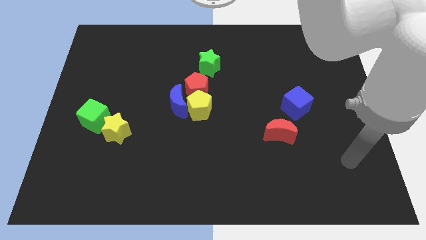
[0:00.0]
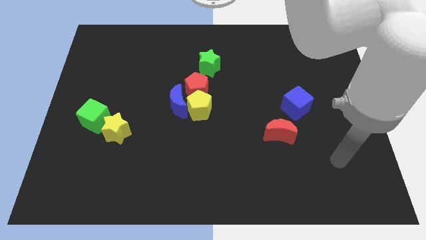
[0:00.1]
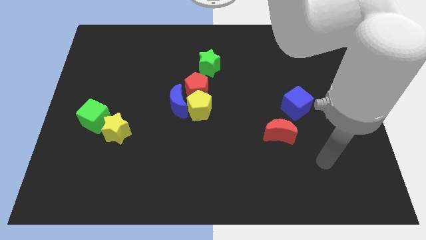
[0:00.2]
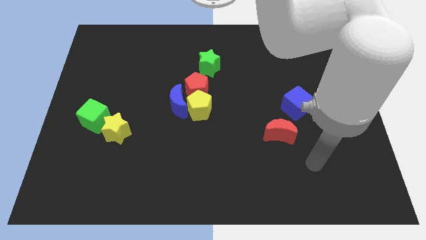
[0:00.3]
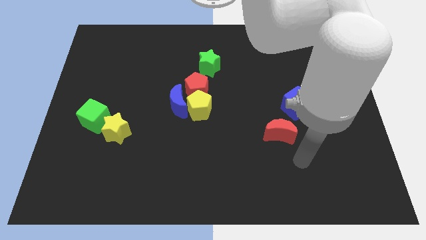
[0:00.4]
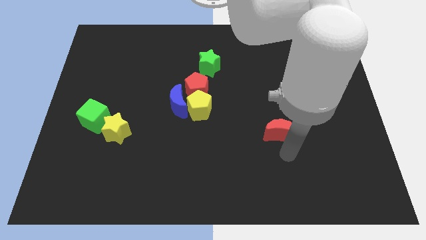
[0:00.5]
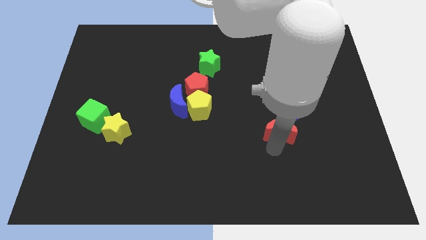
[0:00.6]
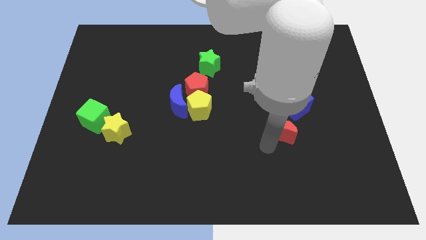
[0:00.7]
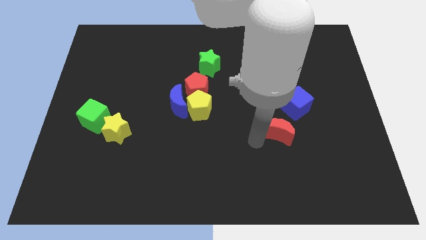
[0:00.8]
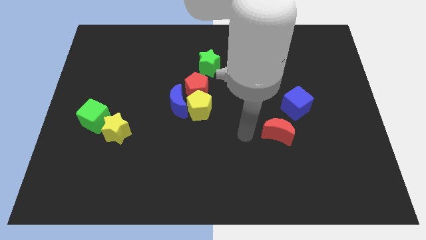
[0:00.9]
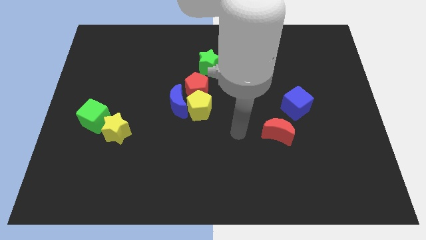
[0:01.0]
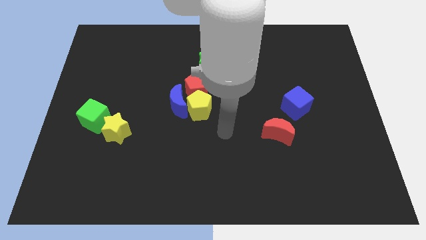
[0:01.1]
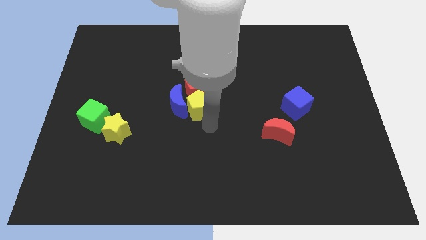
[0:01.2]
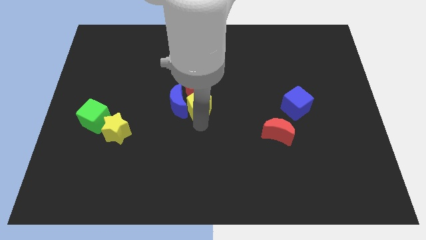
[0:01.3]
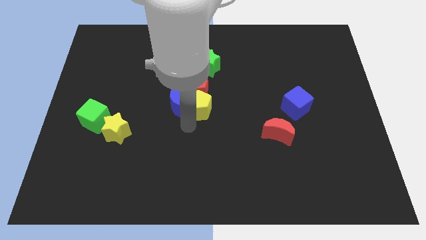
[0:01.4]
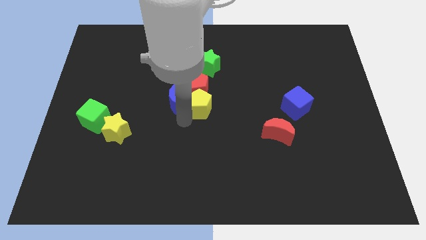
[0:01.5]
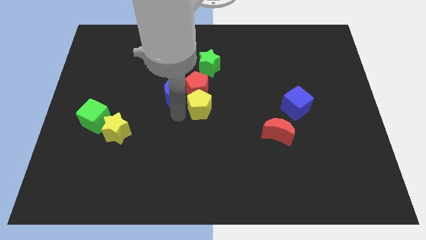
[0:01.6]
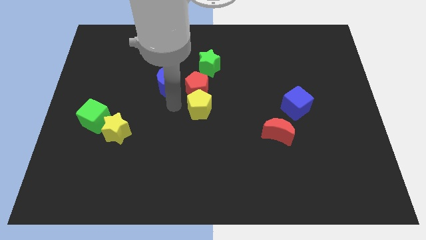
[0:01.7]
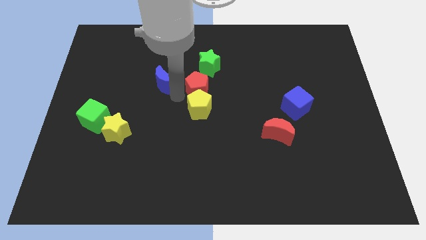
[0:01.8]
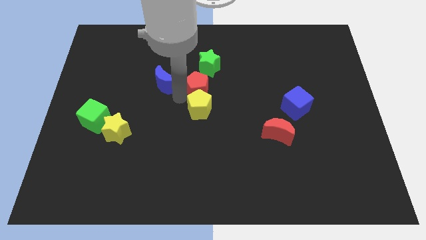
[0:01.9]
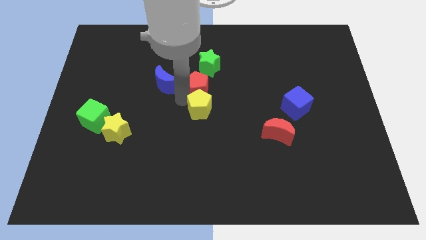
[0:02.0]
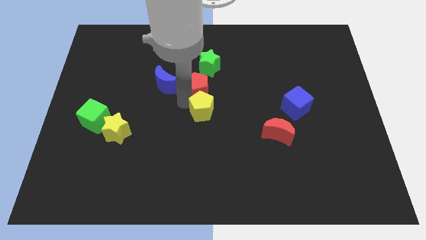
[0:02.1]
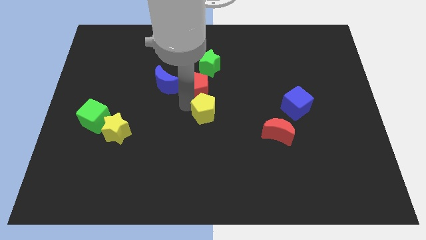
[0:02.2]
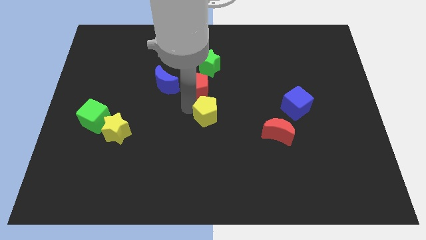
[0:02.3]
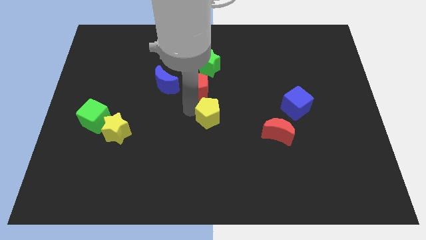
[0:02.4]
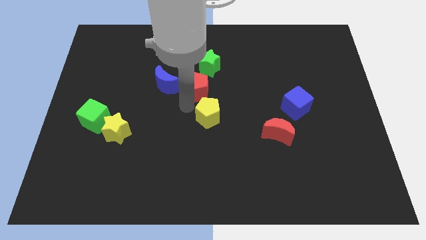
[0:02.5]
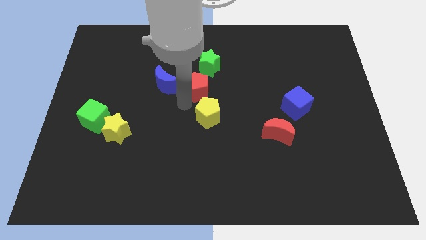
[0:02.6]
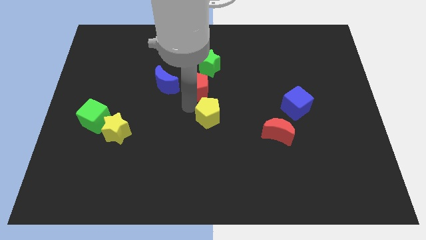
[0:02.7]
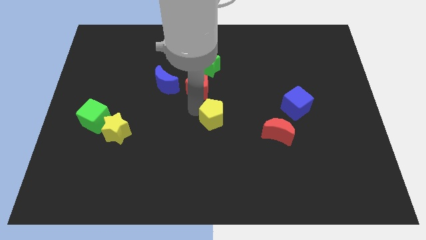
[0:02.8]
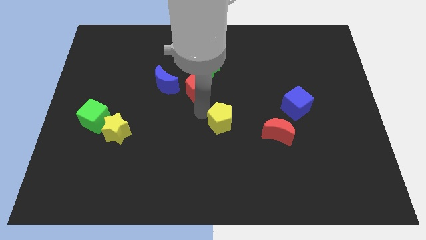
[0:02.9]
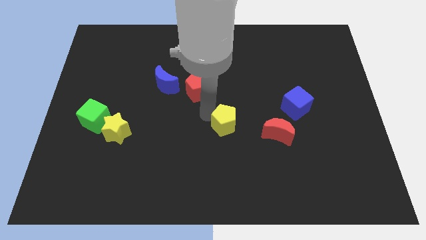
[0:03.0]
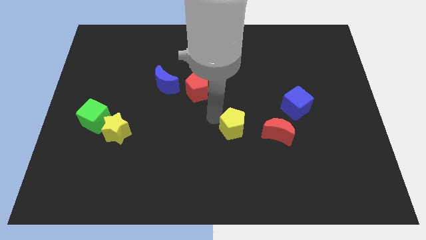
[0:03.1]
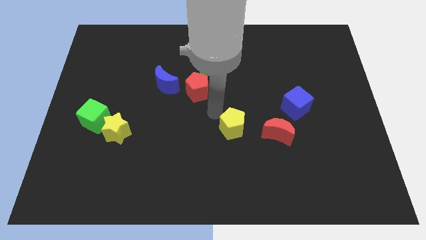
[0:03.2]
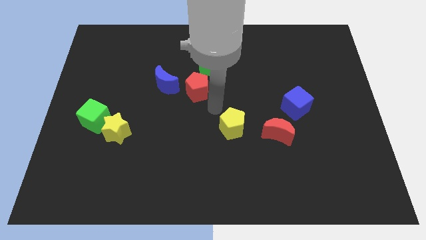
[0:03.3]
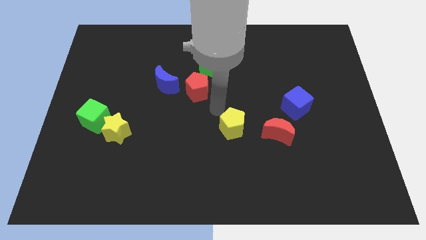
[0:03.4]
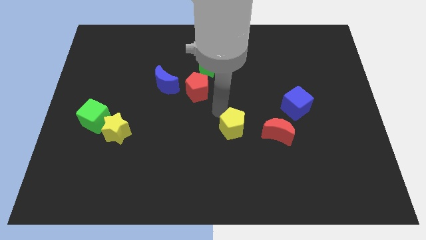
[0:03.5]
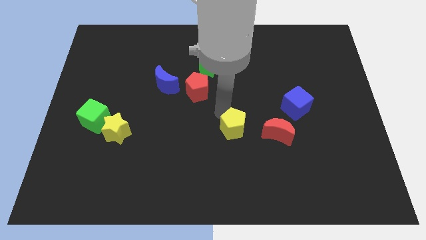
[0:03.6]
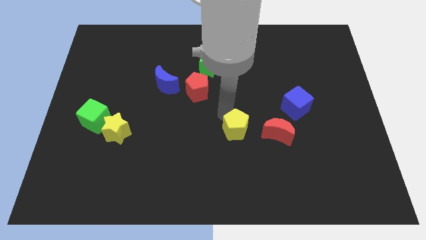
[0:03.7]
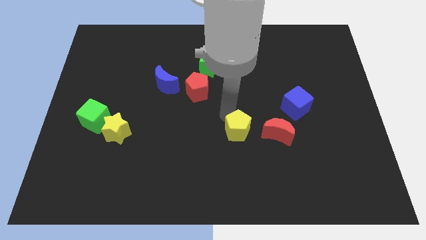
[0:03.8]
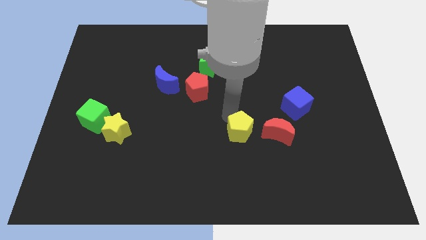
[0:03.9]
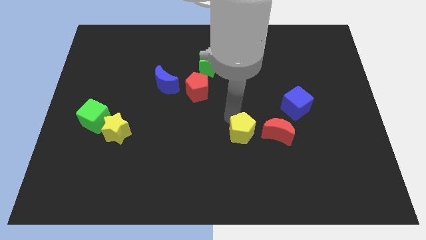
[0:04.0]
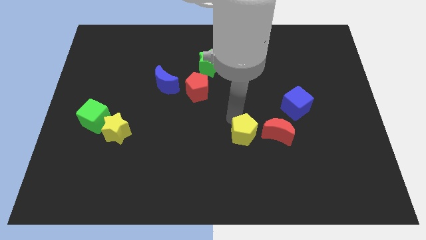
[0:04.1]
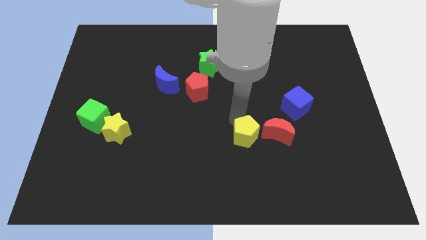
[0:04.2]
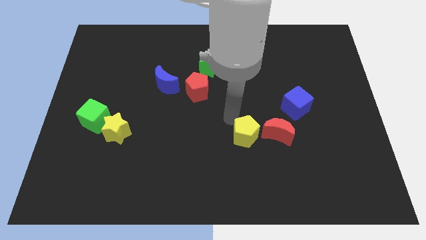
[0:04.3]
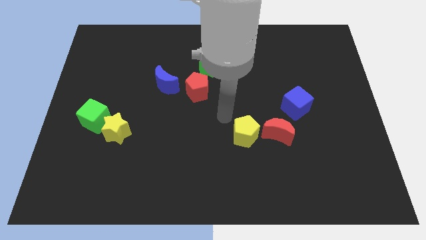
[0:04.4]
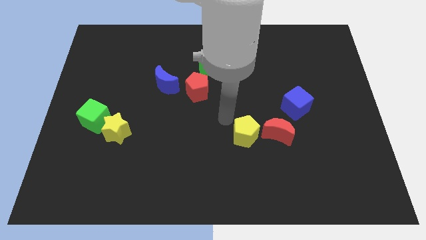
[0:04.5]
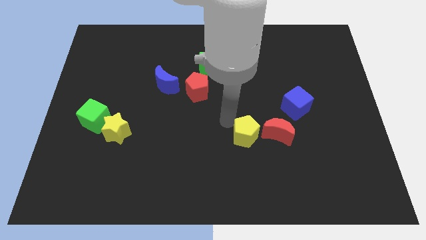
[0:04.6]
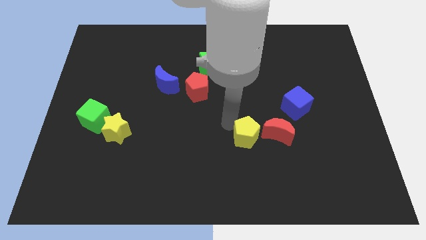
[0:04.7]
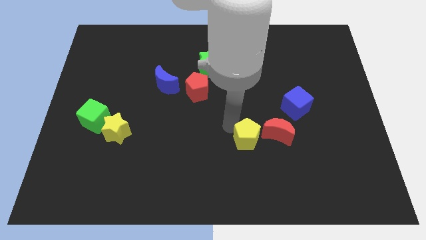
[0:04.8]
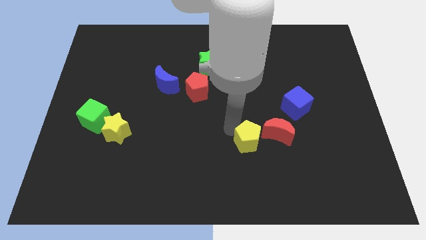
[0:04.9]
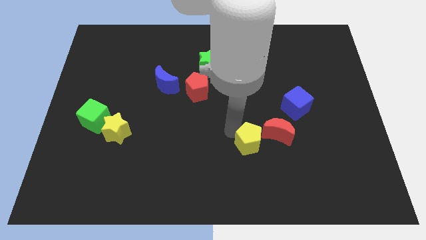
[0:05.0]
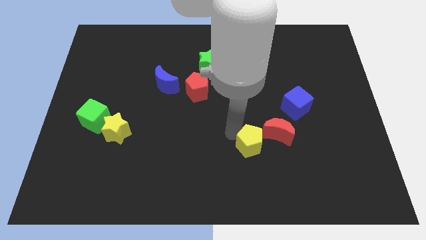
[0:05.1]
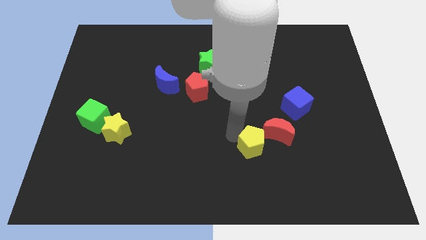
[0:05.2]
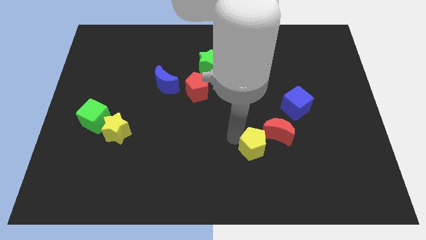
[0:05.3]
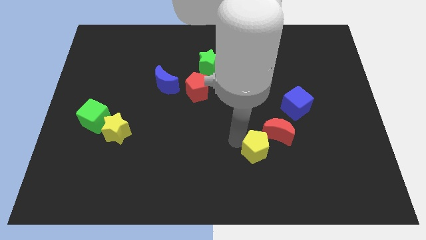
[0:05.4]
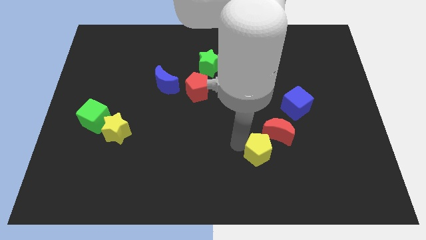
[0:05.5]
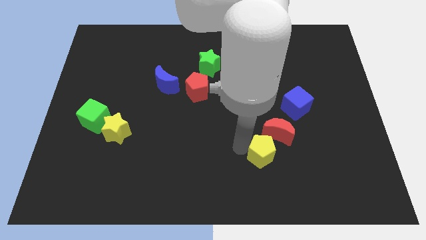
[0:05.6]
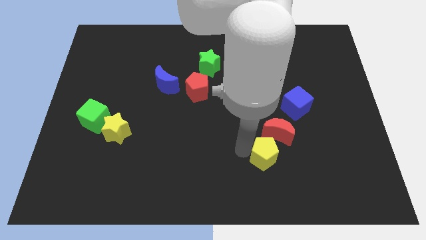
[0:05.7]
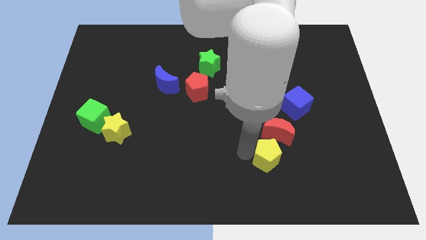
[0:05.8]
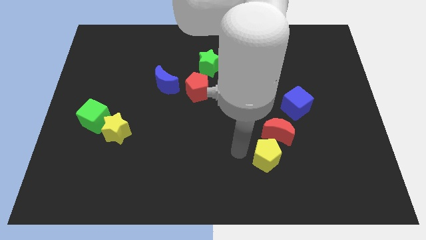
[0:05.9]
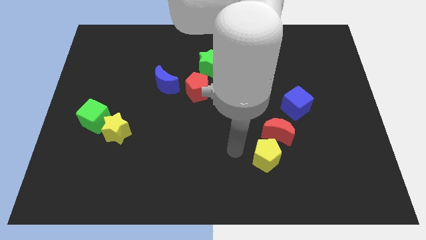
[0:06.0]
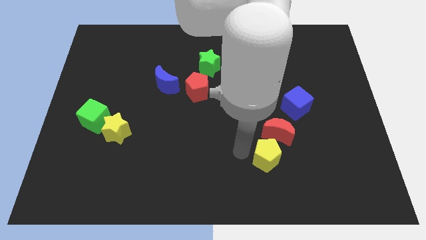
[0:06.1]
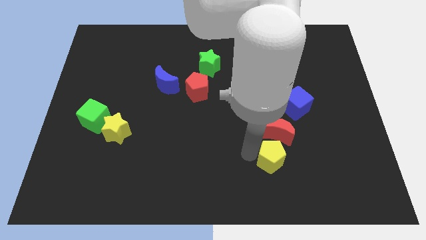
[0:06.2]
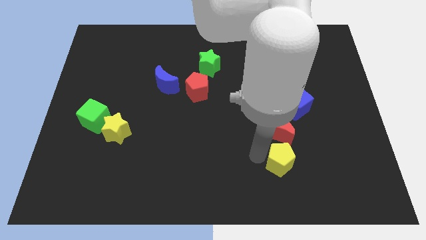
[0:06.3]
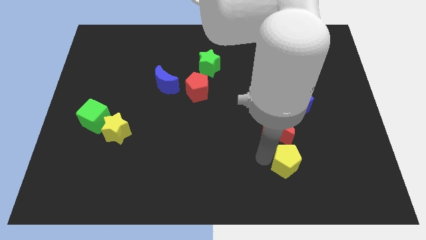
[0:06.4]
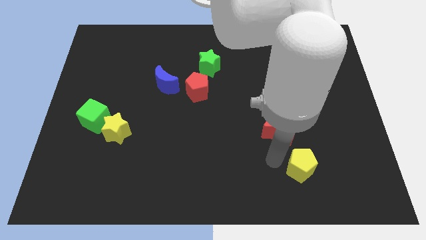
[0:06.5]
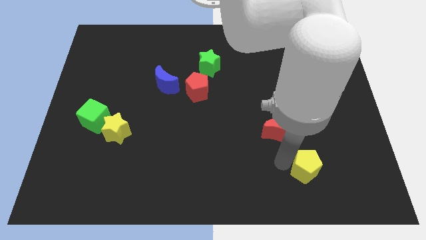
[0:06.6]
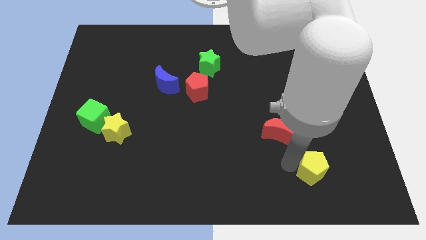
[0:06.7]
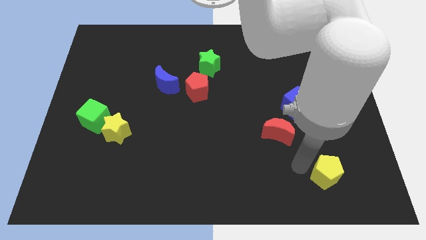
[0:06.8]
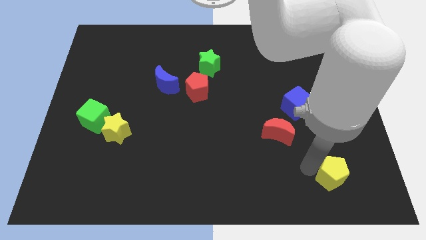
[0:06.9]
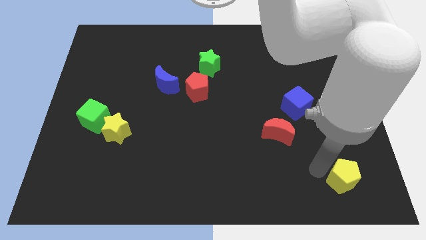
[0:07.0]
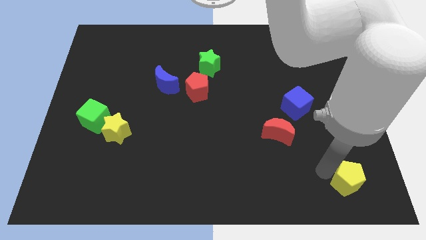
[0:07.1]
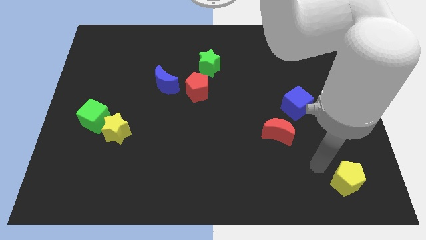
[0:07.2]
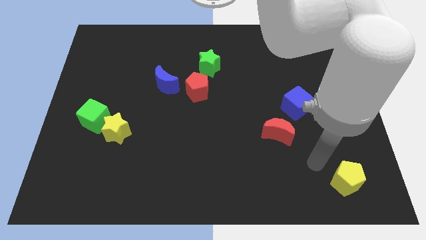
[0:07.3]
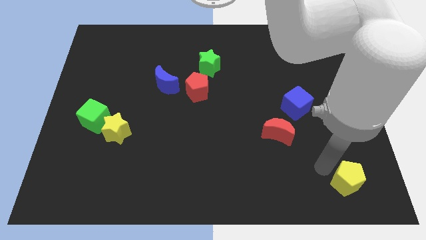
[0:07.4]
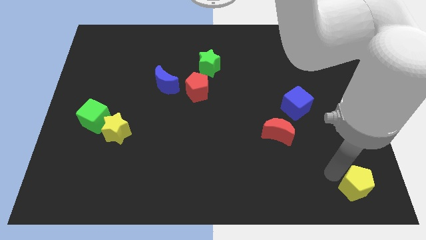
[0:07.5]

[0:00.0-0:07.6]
slide the yellow pentagon to the lower right corner
